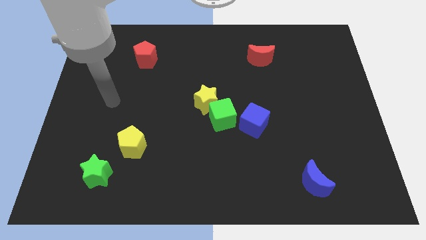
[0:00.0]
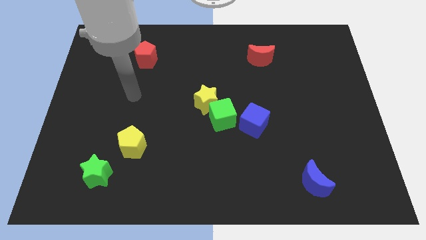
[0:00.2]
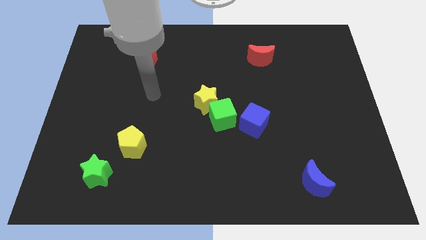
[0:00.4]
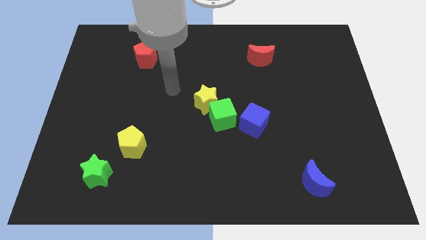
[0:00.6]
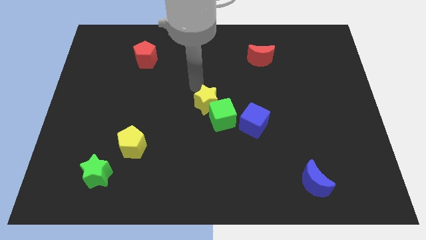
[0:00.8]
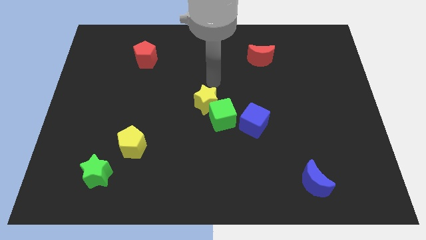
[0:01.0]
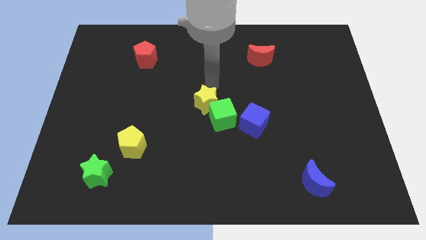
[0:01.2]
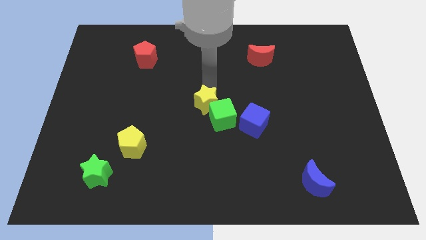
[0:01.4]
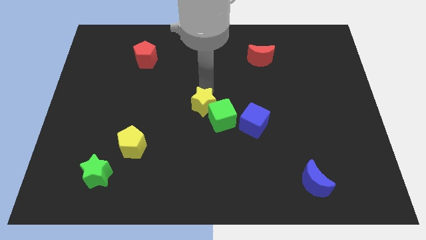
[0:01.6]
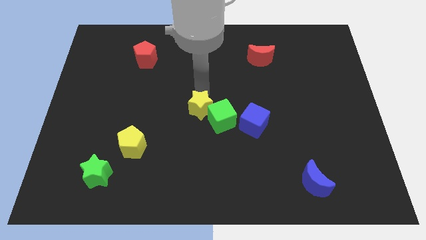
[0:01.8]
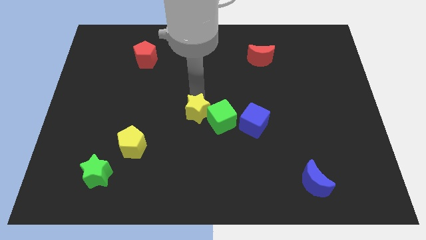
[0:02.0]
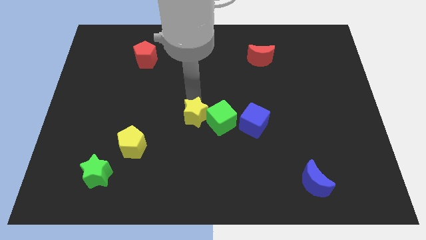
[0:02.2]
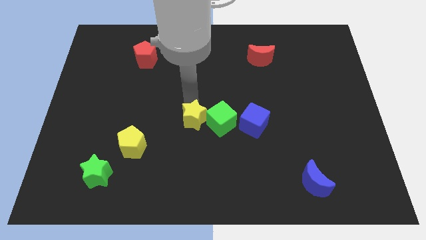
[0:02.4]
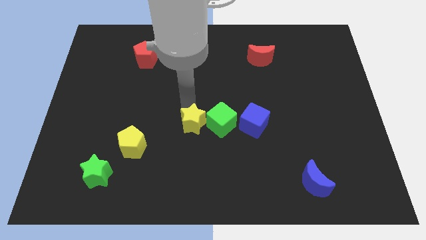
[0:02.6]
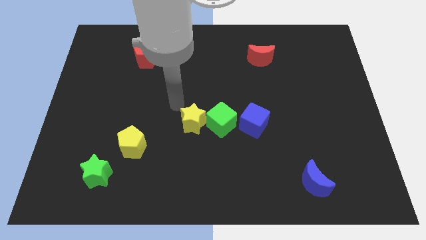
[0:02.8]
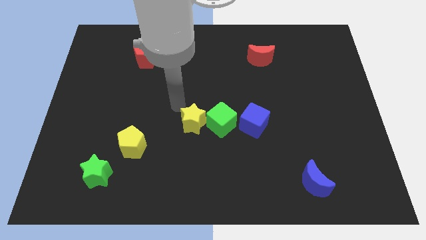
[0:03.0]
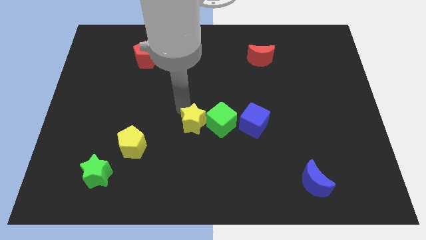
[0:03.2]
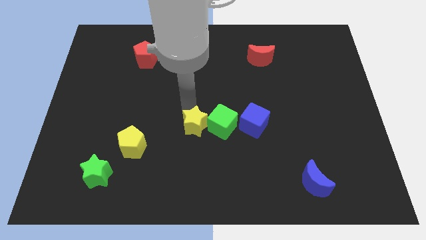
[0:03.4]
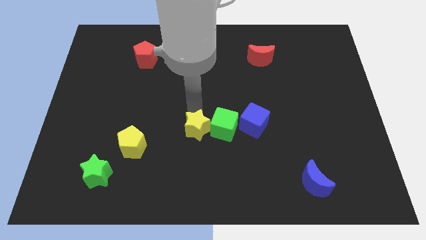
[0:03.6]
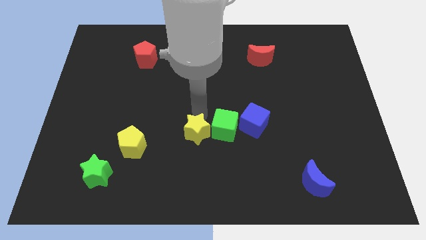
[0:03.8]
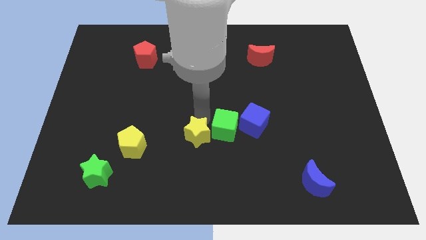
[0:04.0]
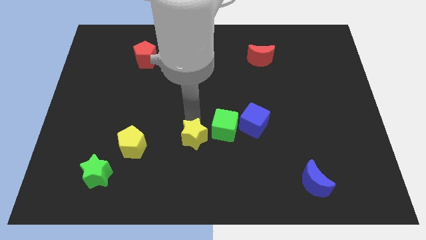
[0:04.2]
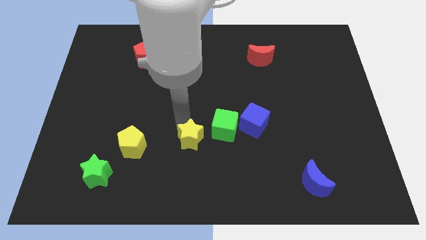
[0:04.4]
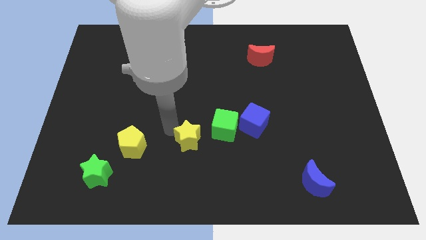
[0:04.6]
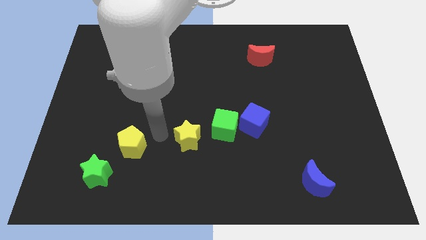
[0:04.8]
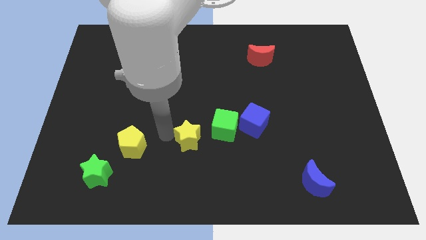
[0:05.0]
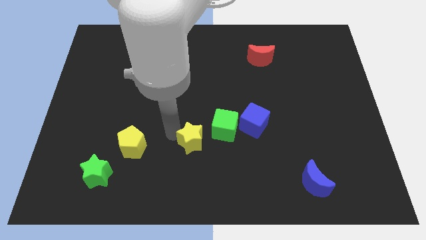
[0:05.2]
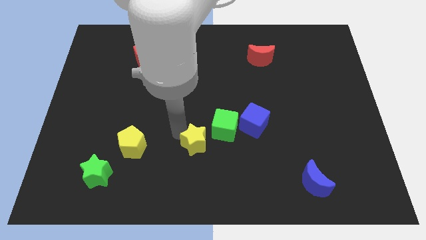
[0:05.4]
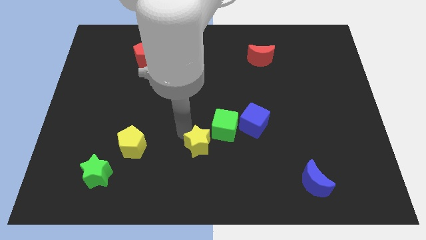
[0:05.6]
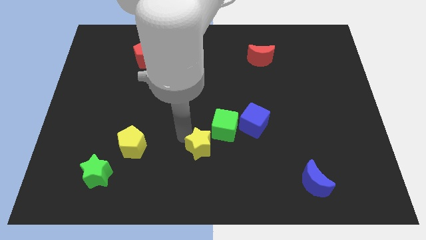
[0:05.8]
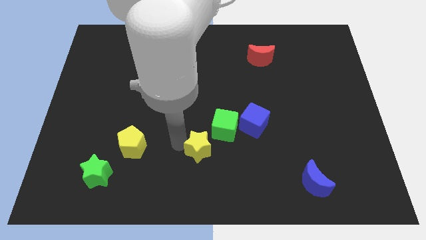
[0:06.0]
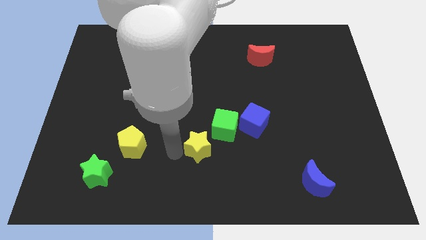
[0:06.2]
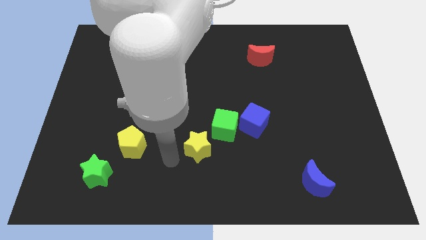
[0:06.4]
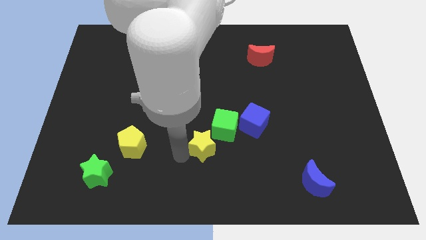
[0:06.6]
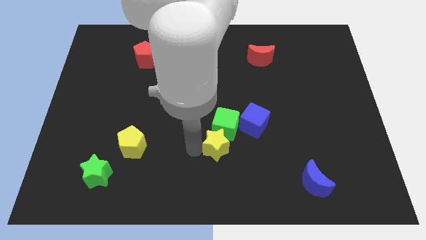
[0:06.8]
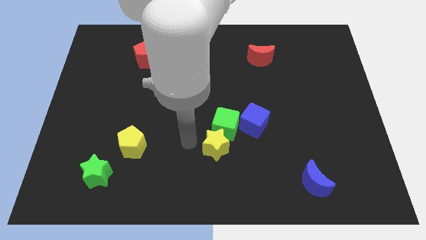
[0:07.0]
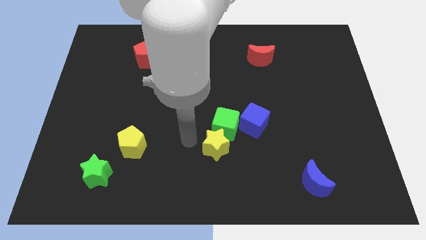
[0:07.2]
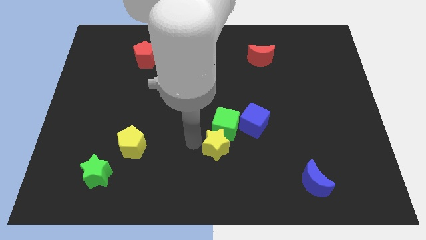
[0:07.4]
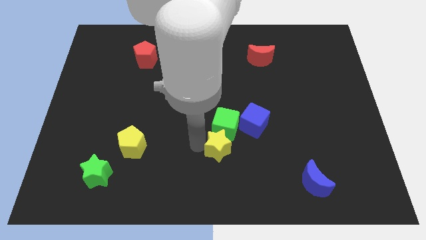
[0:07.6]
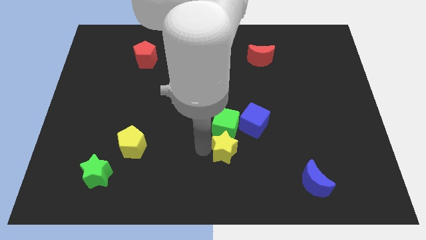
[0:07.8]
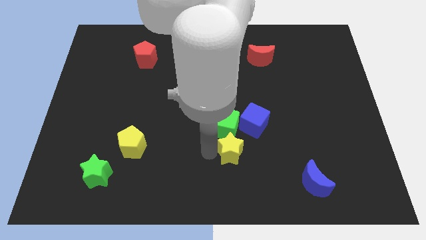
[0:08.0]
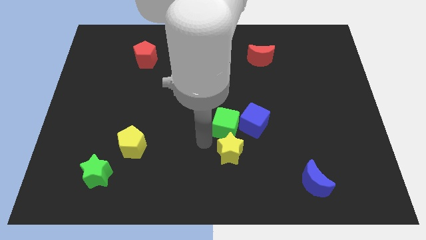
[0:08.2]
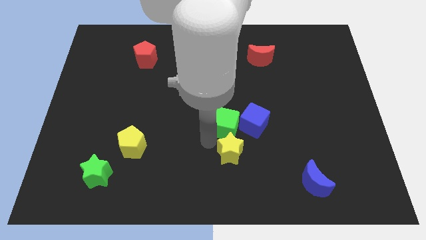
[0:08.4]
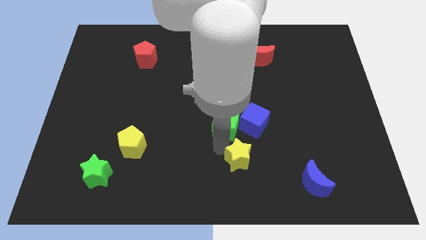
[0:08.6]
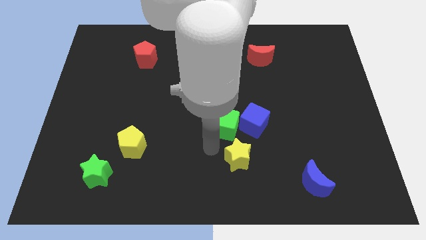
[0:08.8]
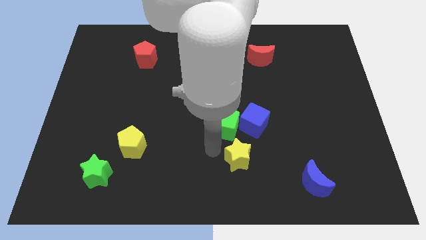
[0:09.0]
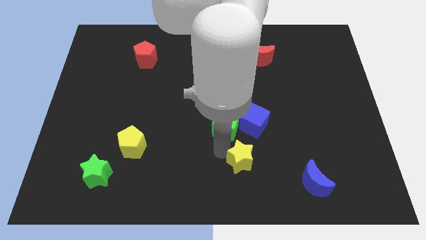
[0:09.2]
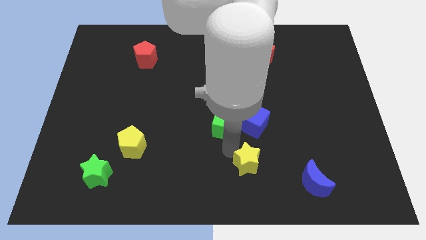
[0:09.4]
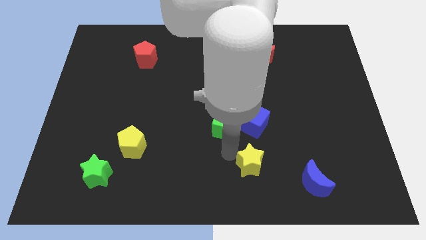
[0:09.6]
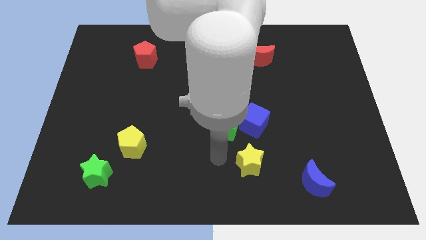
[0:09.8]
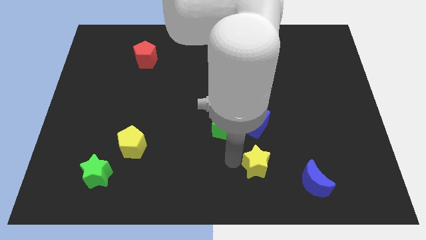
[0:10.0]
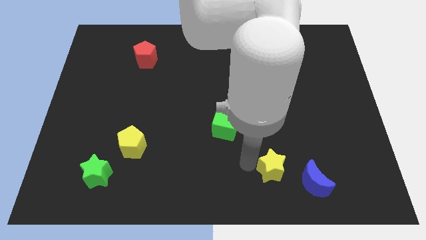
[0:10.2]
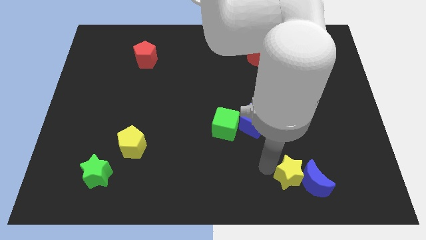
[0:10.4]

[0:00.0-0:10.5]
slide the yellow star to the blue moon

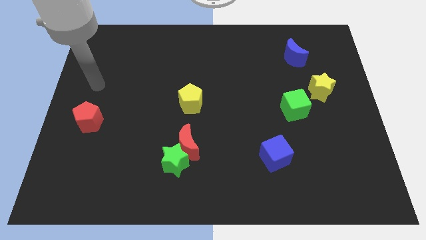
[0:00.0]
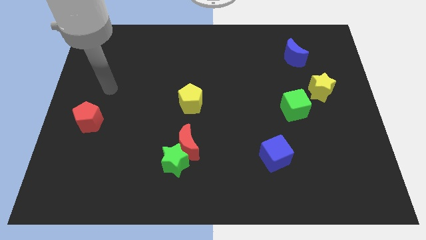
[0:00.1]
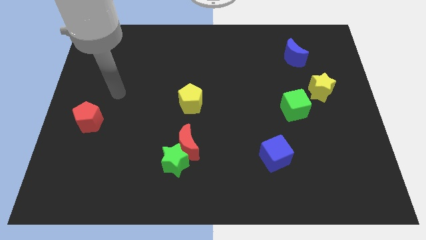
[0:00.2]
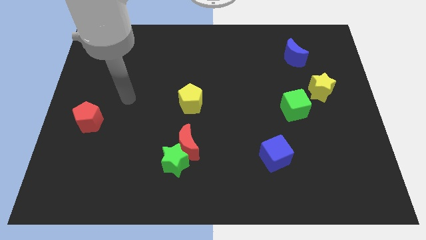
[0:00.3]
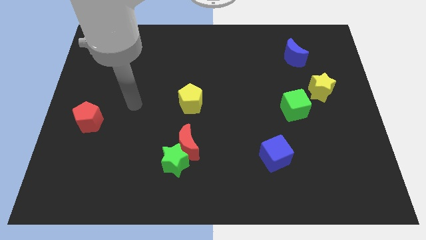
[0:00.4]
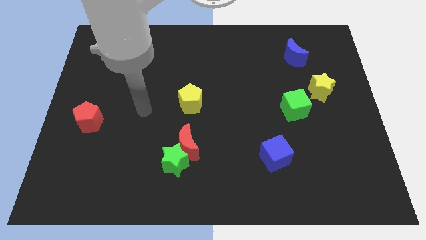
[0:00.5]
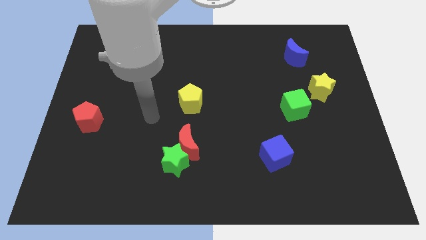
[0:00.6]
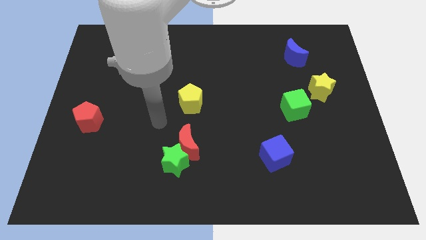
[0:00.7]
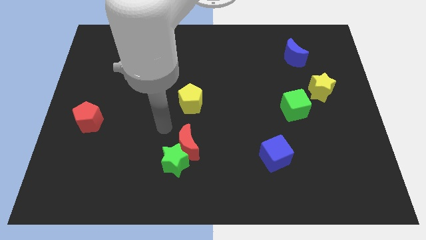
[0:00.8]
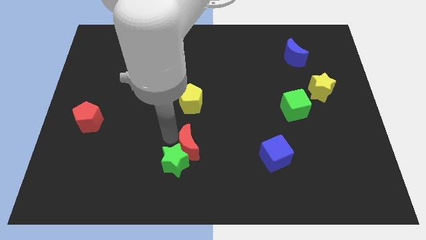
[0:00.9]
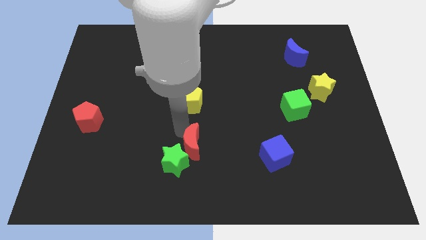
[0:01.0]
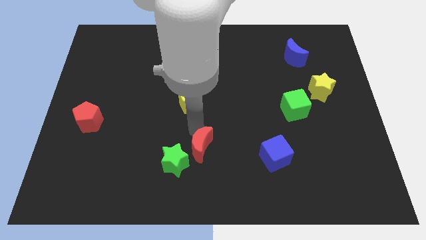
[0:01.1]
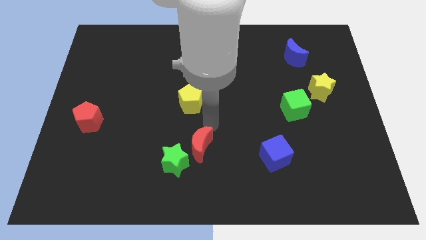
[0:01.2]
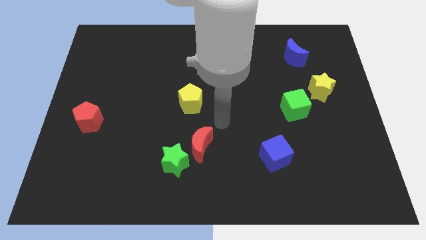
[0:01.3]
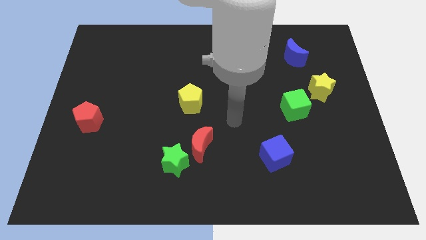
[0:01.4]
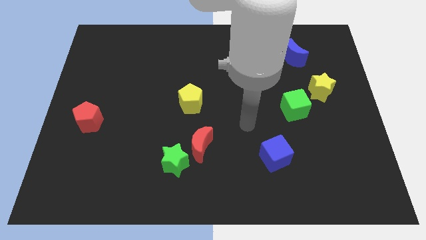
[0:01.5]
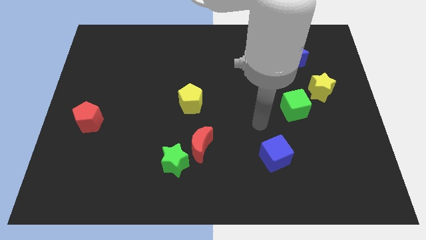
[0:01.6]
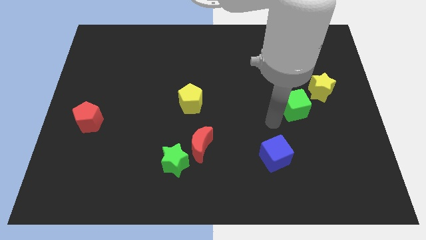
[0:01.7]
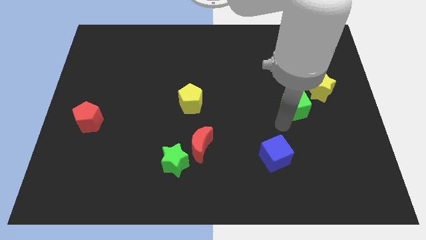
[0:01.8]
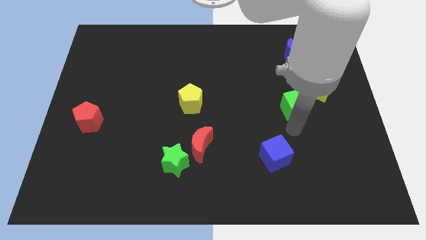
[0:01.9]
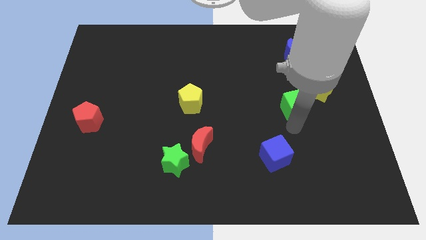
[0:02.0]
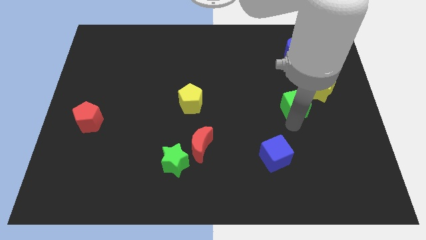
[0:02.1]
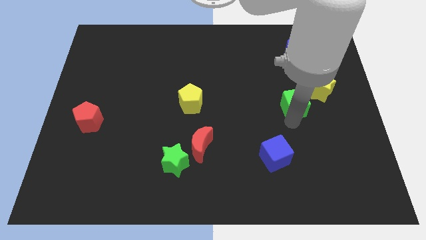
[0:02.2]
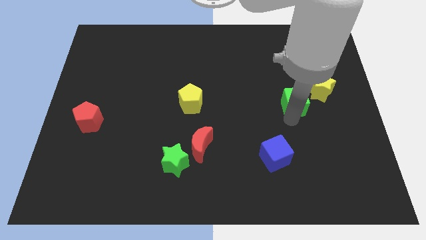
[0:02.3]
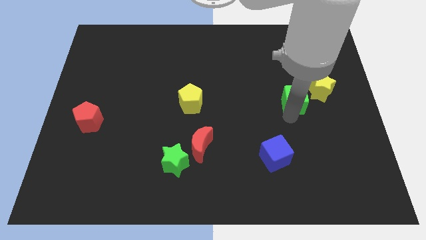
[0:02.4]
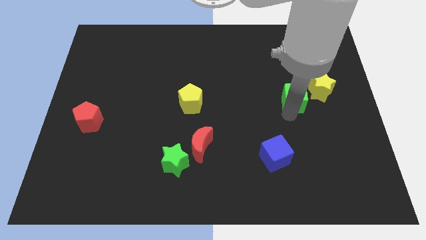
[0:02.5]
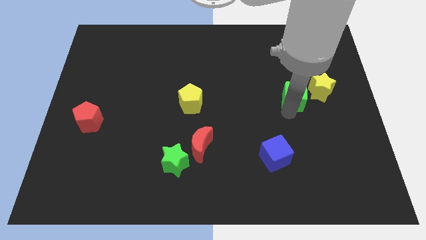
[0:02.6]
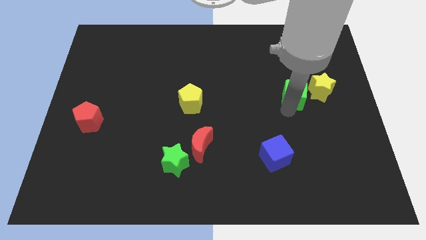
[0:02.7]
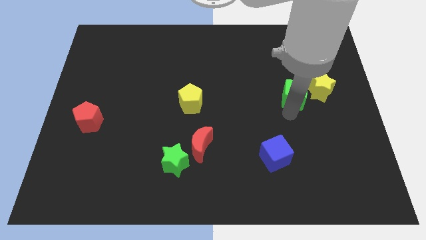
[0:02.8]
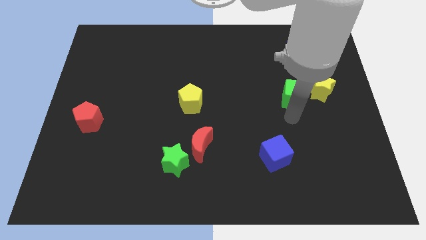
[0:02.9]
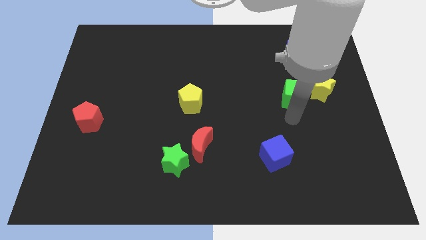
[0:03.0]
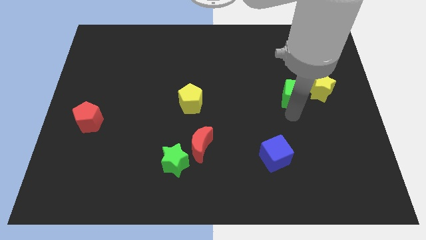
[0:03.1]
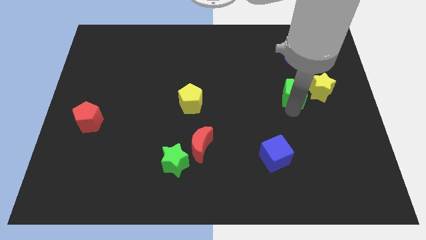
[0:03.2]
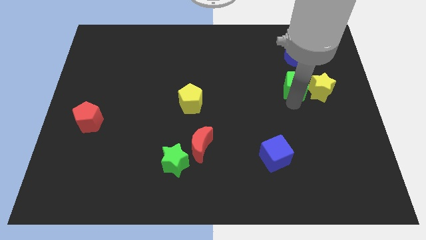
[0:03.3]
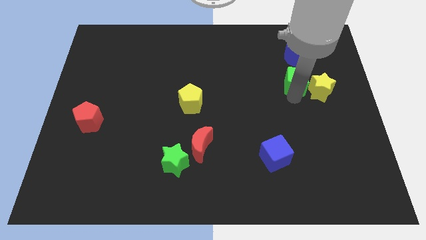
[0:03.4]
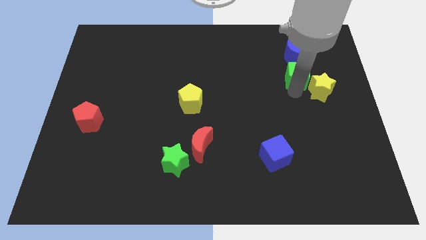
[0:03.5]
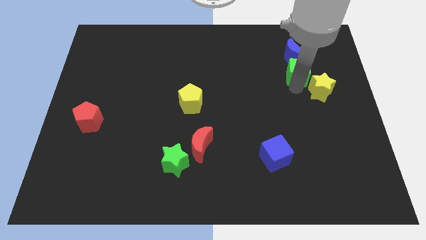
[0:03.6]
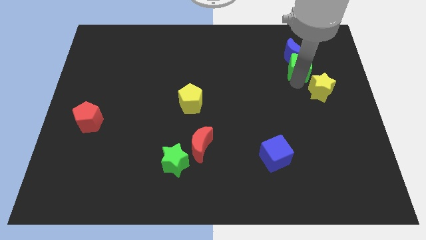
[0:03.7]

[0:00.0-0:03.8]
slide the green cube towards the blue moon
